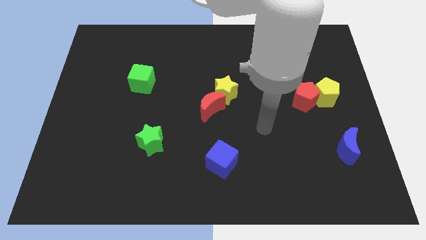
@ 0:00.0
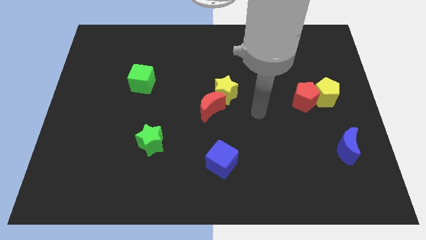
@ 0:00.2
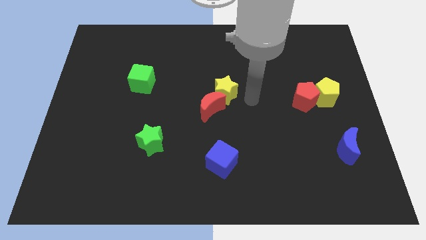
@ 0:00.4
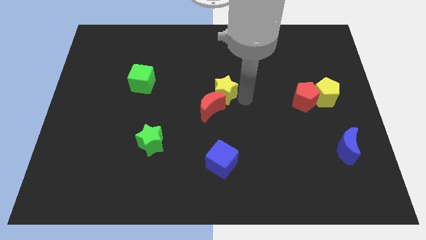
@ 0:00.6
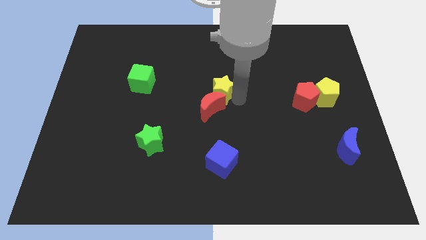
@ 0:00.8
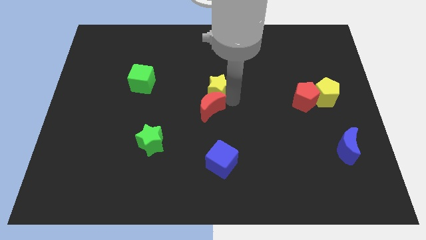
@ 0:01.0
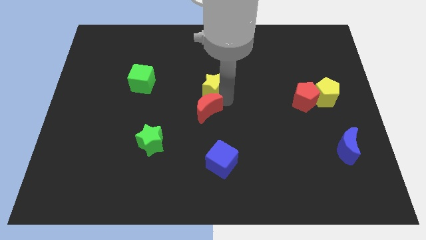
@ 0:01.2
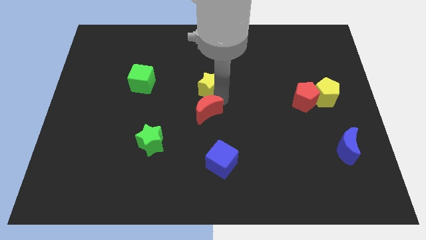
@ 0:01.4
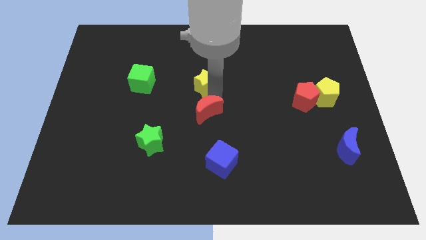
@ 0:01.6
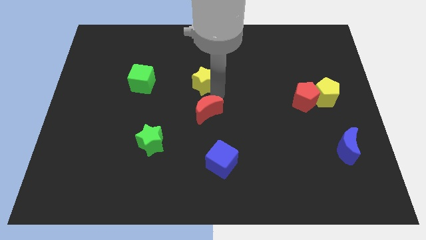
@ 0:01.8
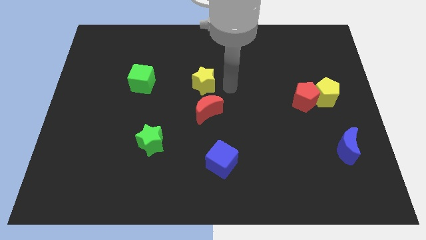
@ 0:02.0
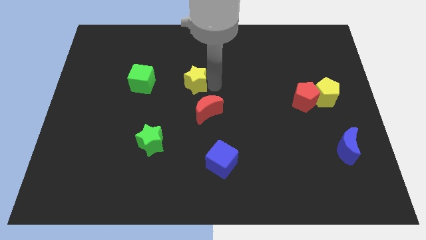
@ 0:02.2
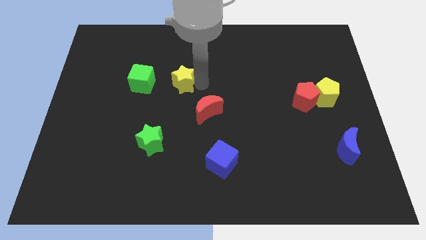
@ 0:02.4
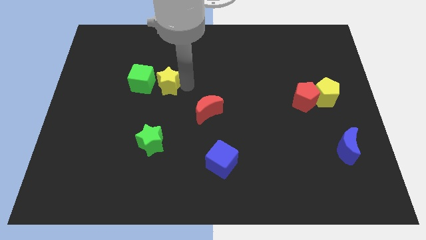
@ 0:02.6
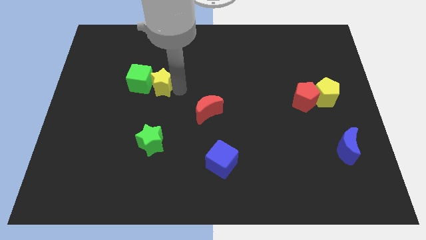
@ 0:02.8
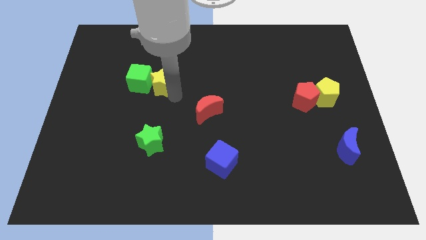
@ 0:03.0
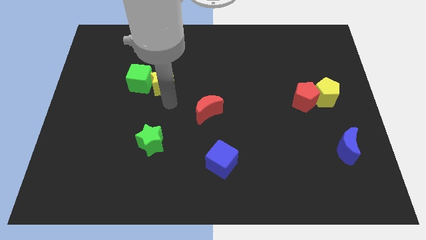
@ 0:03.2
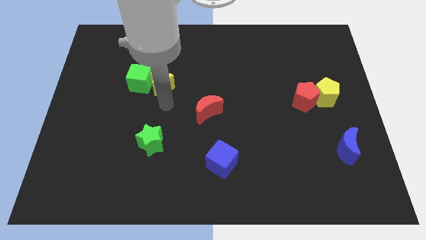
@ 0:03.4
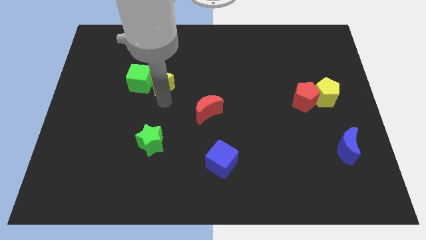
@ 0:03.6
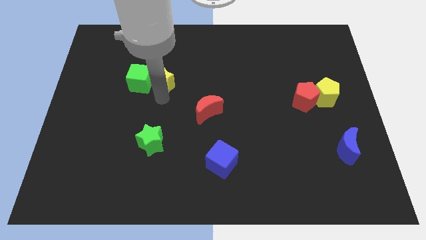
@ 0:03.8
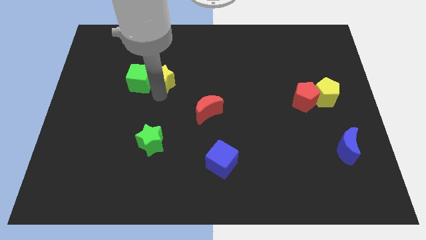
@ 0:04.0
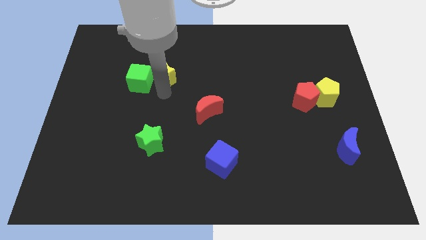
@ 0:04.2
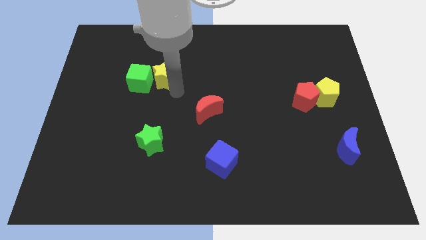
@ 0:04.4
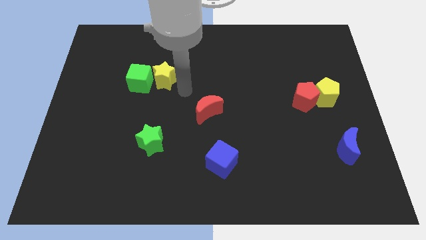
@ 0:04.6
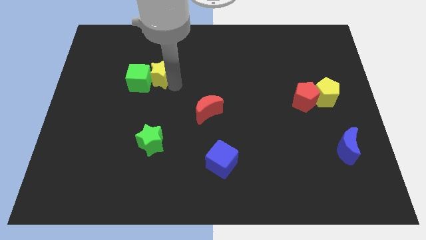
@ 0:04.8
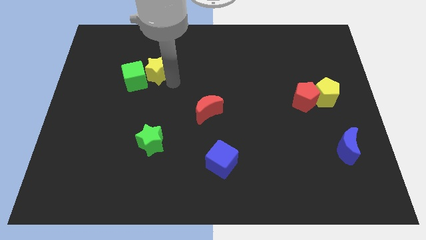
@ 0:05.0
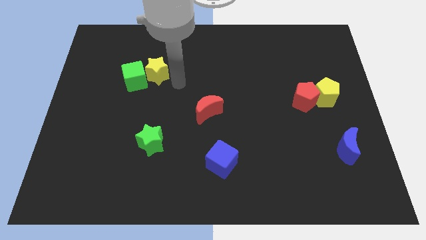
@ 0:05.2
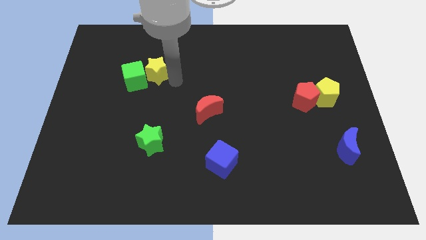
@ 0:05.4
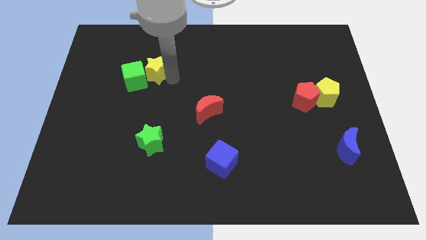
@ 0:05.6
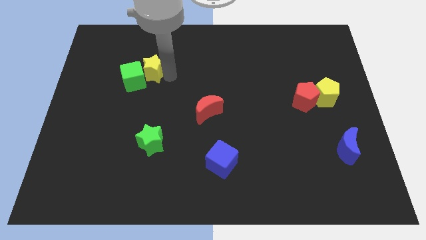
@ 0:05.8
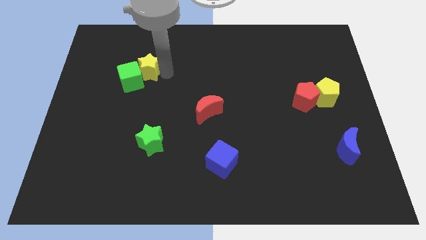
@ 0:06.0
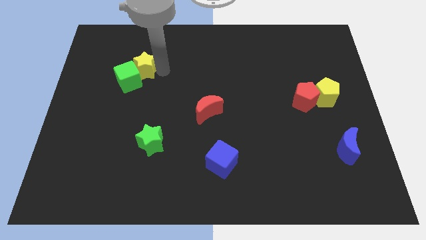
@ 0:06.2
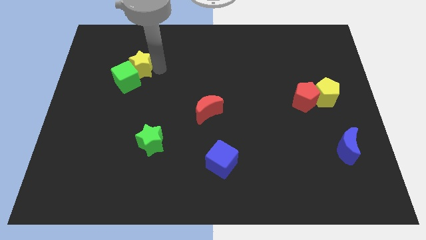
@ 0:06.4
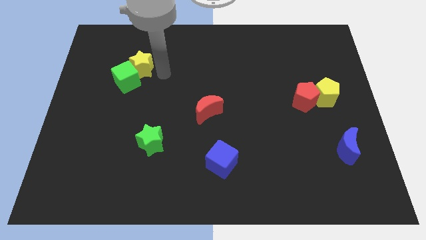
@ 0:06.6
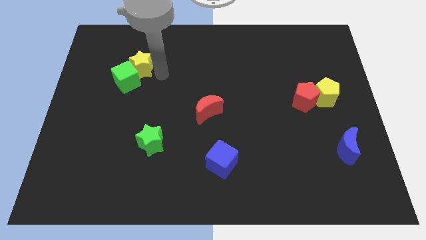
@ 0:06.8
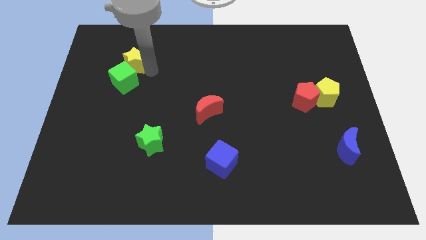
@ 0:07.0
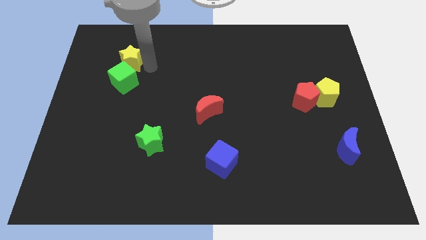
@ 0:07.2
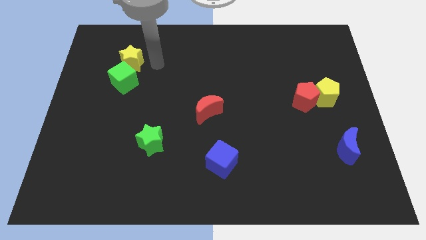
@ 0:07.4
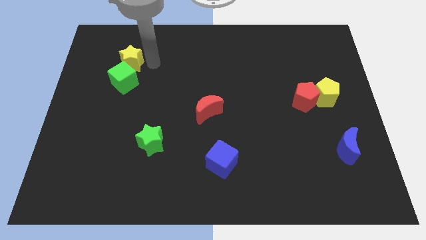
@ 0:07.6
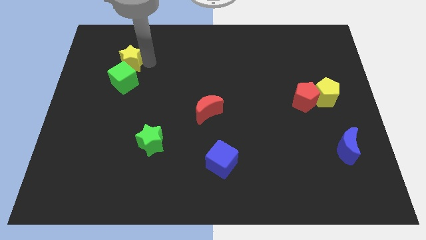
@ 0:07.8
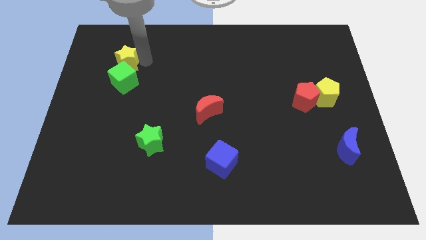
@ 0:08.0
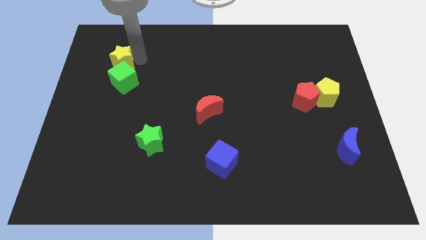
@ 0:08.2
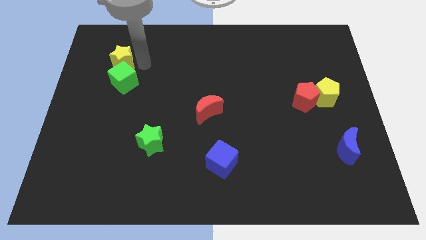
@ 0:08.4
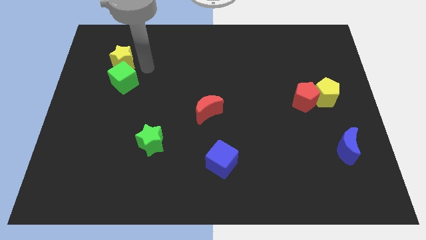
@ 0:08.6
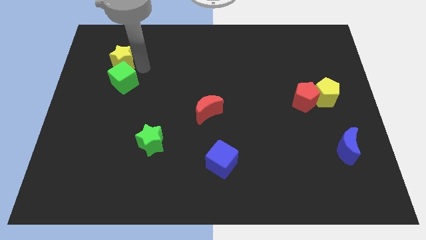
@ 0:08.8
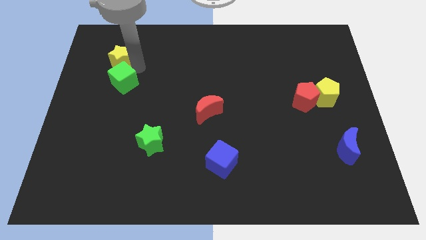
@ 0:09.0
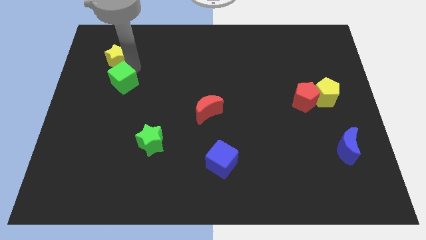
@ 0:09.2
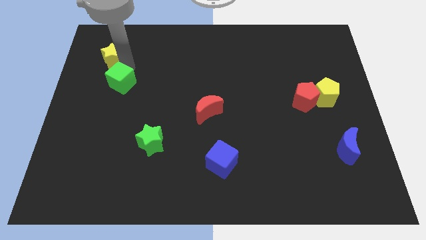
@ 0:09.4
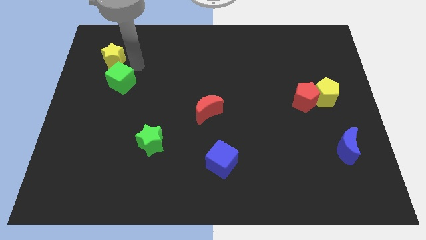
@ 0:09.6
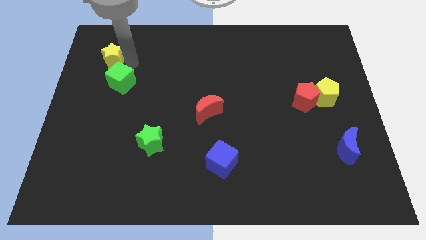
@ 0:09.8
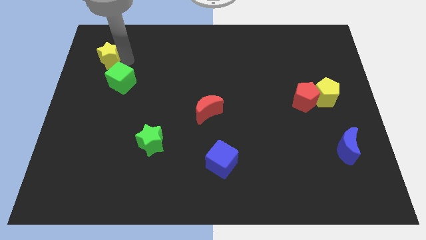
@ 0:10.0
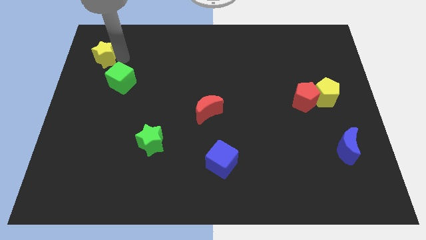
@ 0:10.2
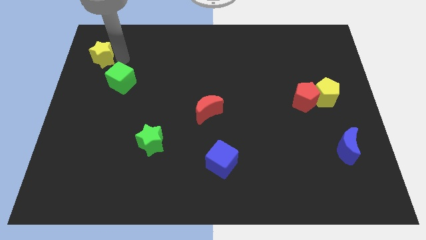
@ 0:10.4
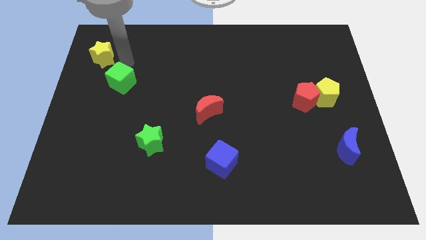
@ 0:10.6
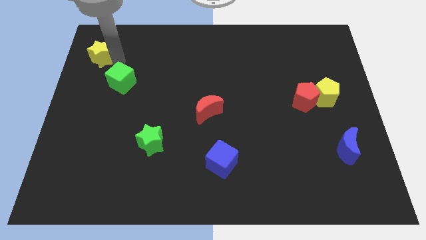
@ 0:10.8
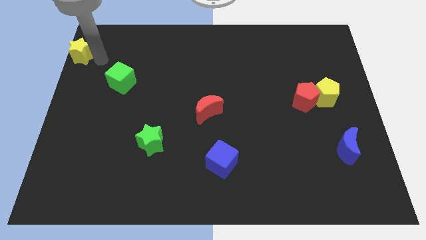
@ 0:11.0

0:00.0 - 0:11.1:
move the yellow star to the top left corner

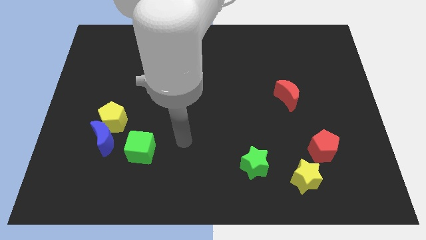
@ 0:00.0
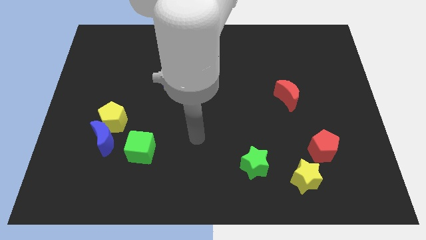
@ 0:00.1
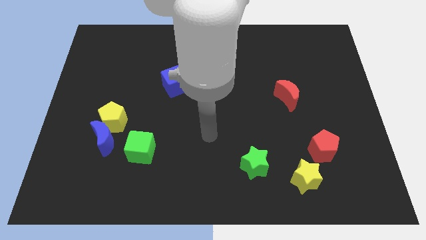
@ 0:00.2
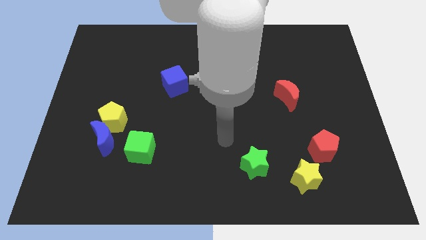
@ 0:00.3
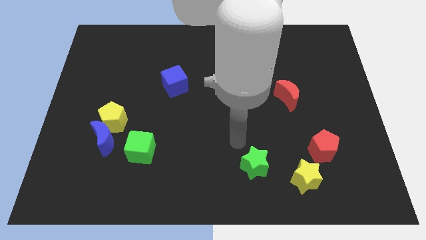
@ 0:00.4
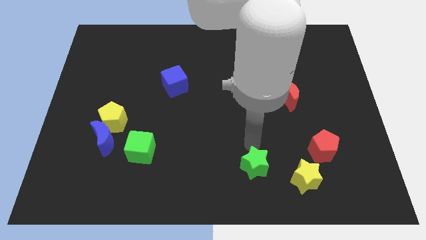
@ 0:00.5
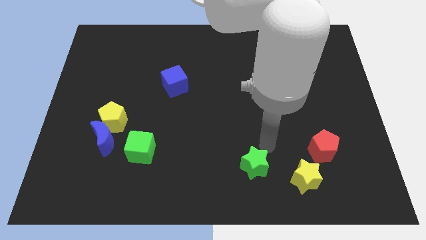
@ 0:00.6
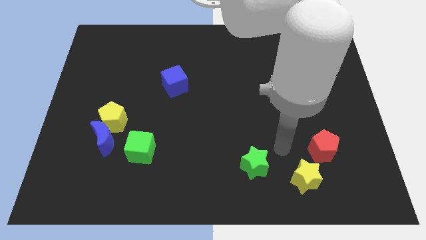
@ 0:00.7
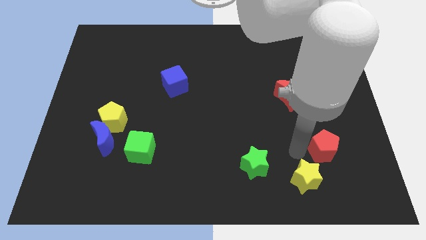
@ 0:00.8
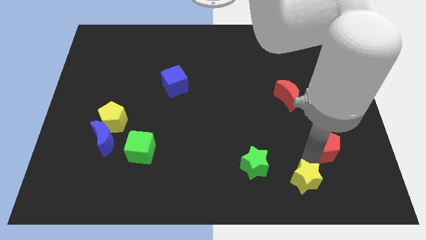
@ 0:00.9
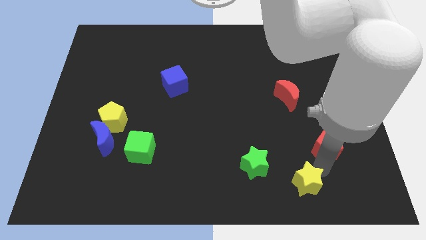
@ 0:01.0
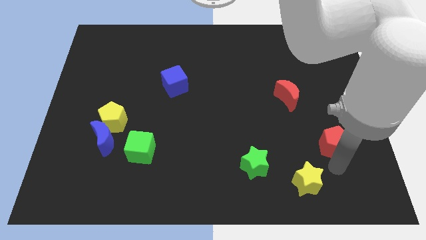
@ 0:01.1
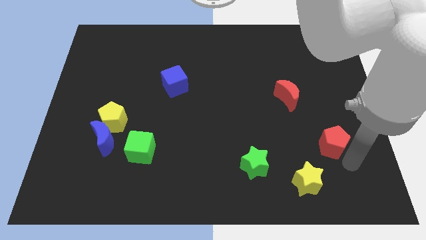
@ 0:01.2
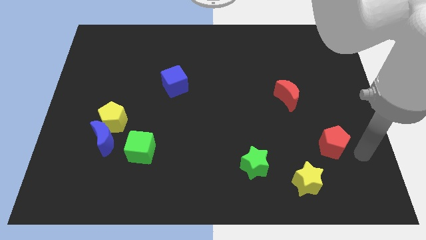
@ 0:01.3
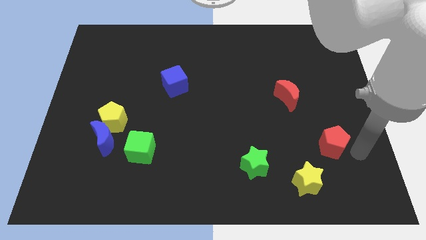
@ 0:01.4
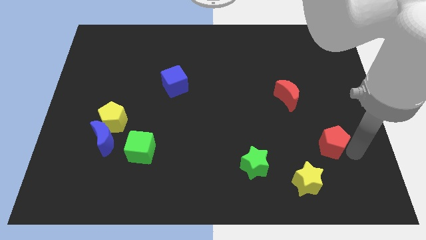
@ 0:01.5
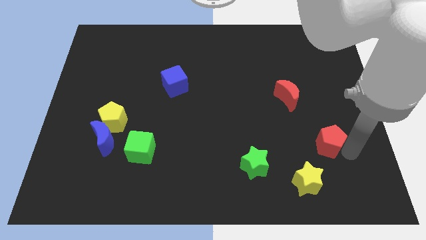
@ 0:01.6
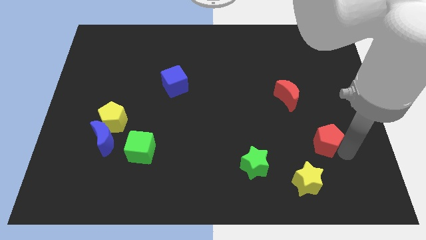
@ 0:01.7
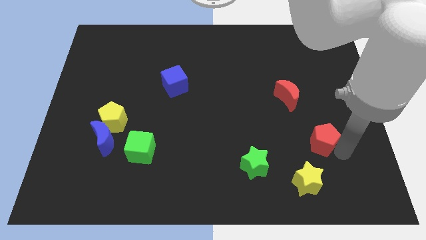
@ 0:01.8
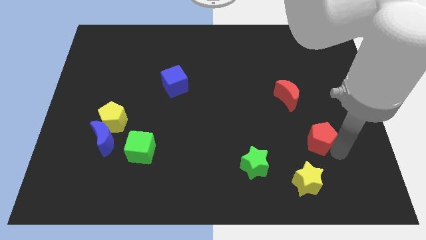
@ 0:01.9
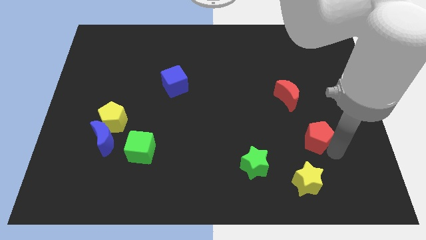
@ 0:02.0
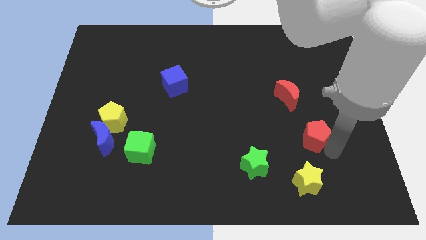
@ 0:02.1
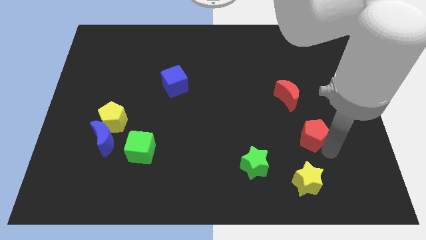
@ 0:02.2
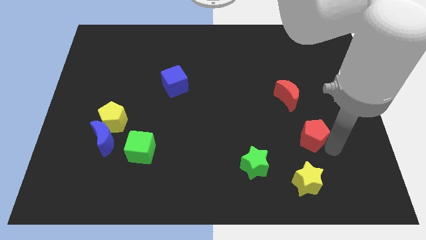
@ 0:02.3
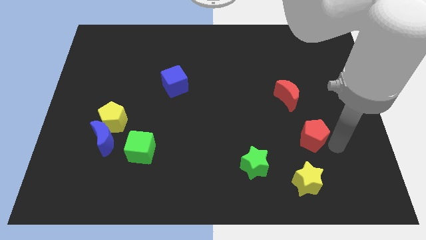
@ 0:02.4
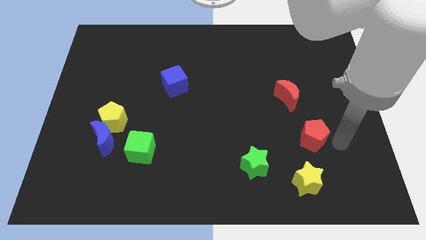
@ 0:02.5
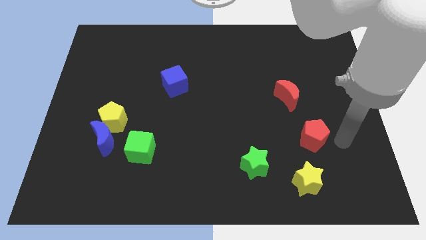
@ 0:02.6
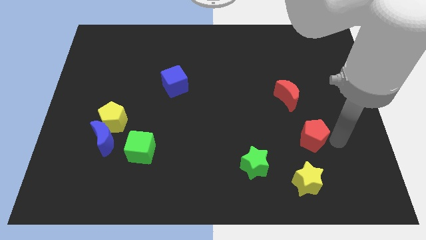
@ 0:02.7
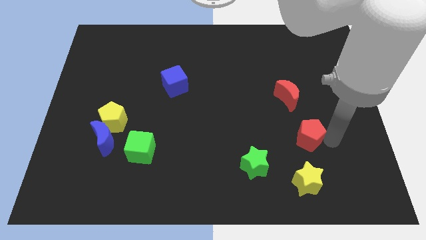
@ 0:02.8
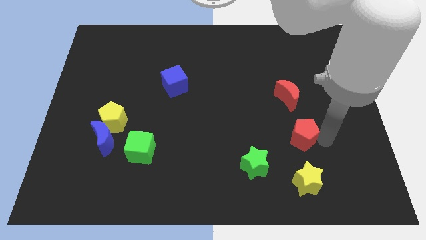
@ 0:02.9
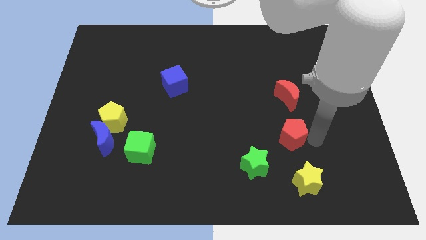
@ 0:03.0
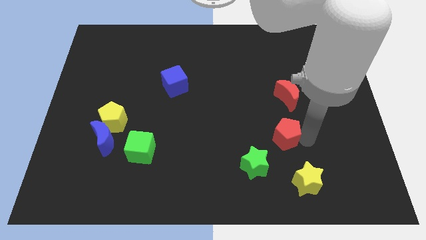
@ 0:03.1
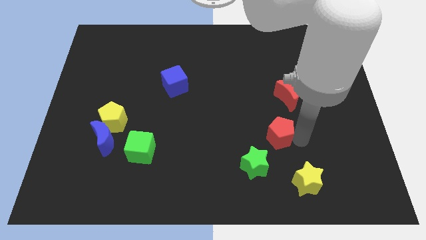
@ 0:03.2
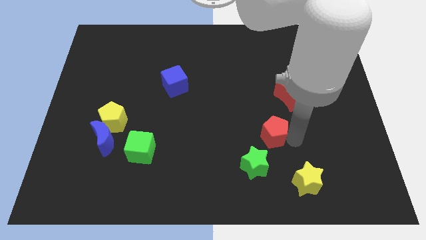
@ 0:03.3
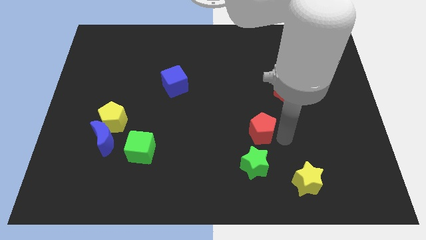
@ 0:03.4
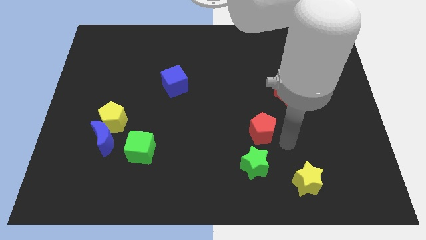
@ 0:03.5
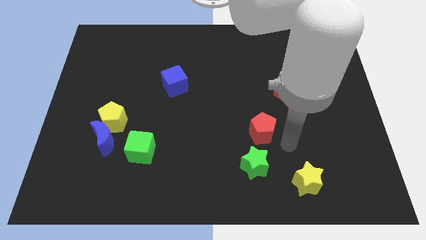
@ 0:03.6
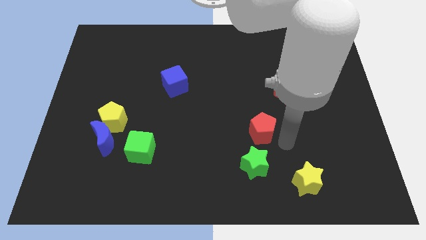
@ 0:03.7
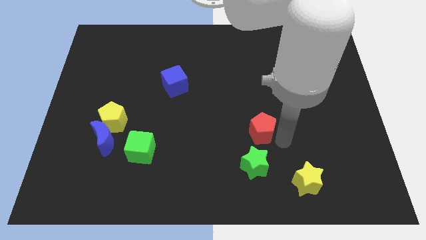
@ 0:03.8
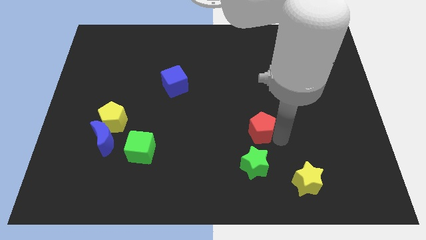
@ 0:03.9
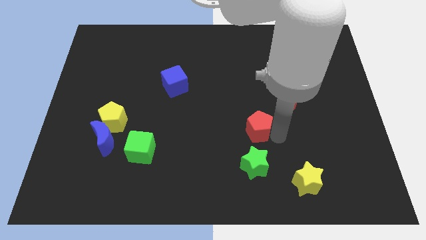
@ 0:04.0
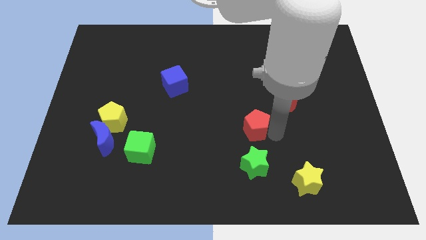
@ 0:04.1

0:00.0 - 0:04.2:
slide the red pentagon to the center
